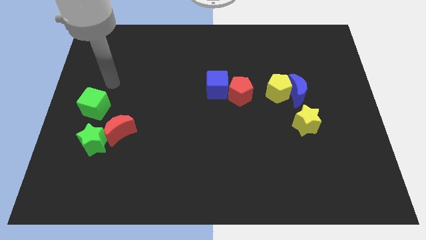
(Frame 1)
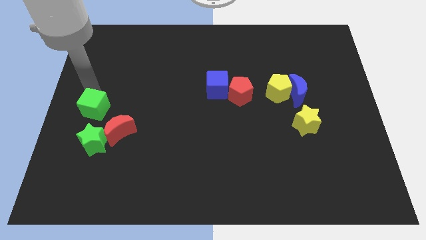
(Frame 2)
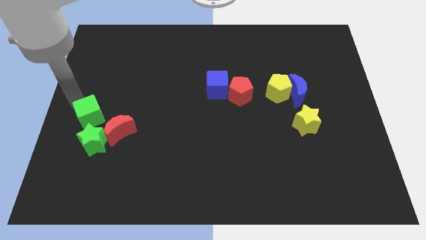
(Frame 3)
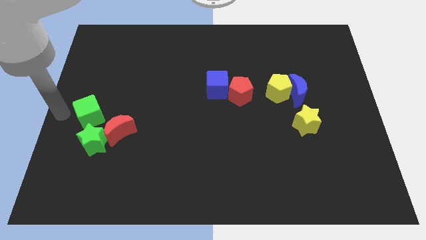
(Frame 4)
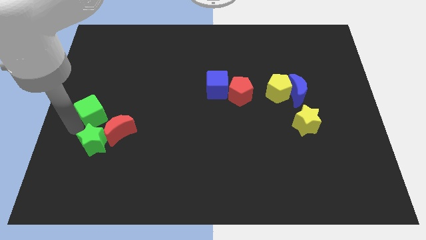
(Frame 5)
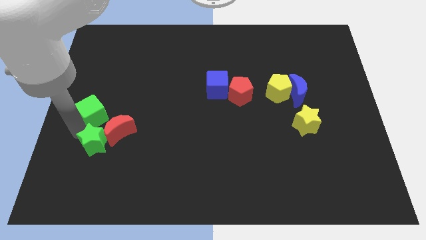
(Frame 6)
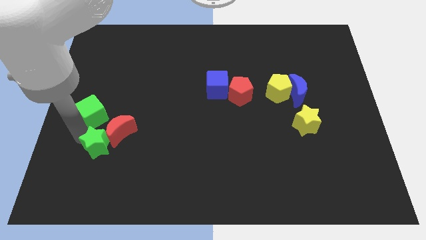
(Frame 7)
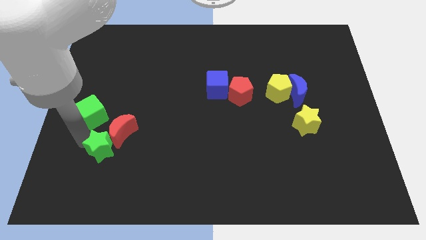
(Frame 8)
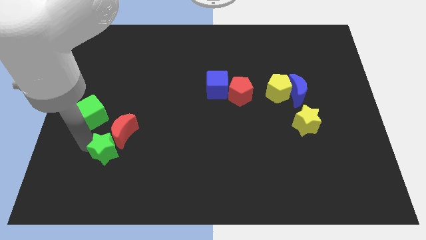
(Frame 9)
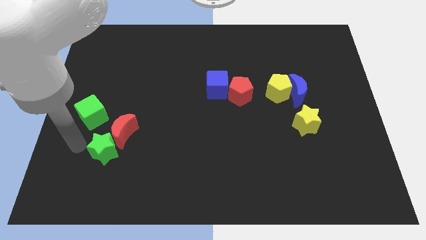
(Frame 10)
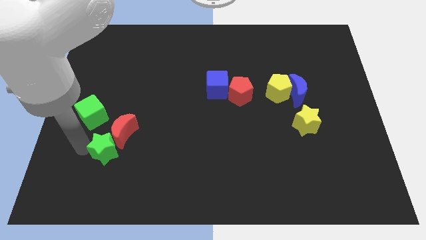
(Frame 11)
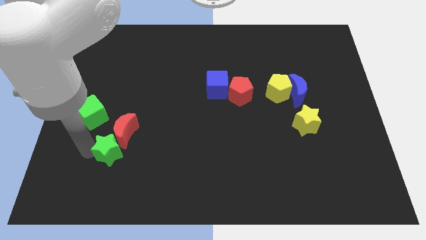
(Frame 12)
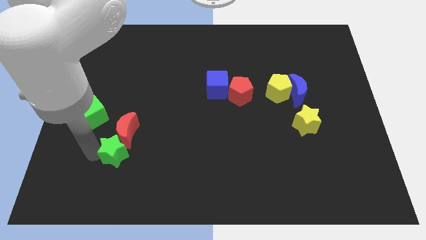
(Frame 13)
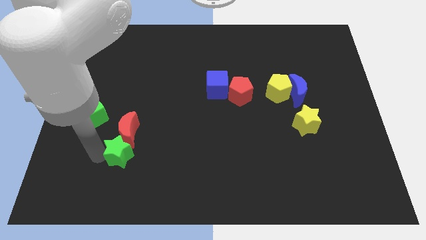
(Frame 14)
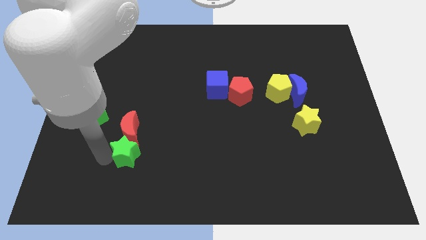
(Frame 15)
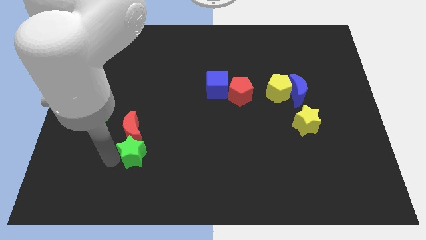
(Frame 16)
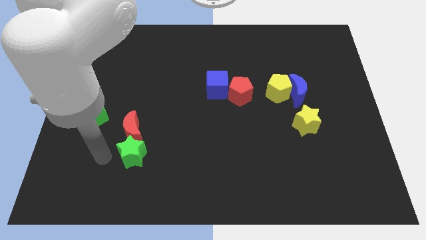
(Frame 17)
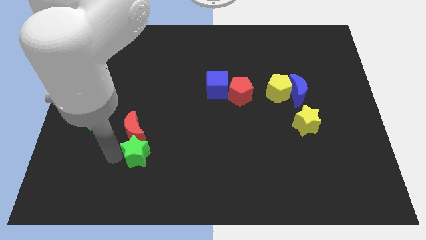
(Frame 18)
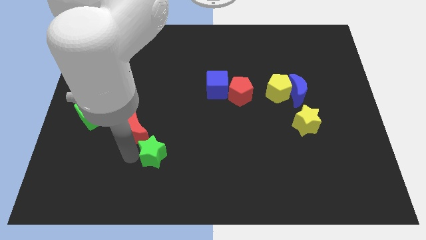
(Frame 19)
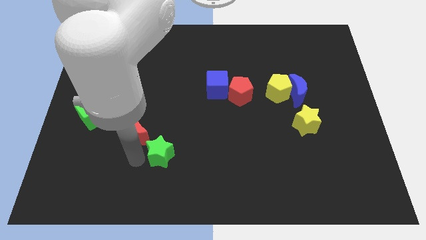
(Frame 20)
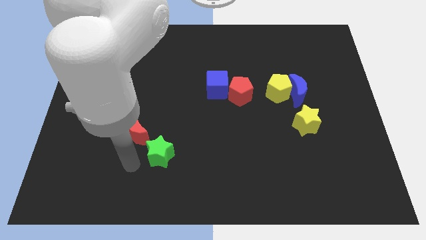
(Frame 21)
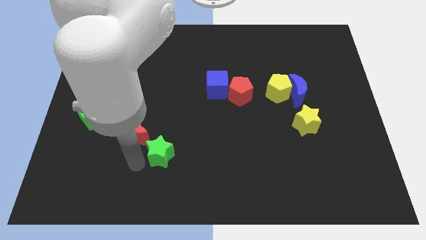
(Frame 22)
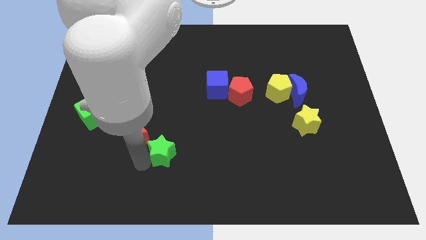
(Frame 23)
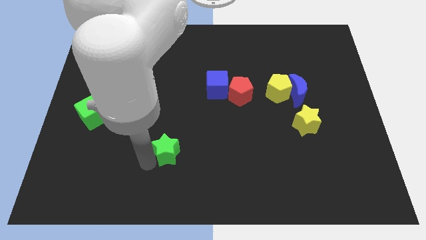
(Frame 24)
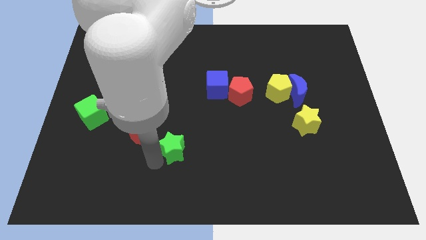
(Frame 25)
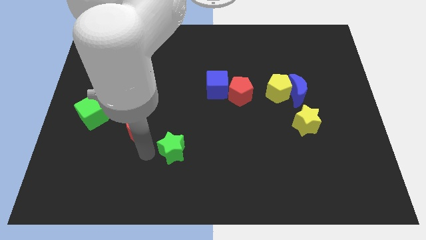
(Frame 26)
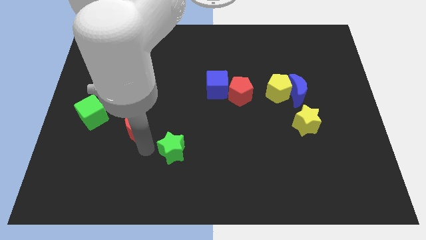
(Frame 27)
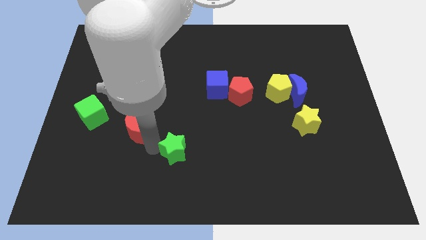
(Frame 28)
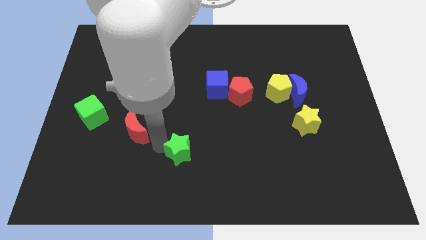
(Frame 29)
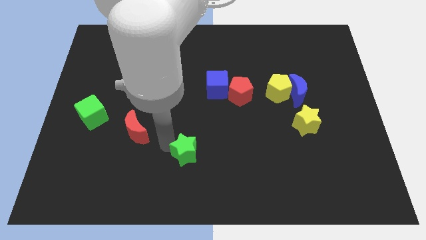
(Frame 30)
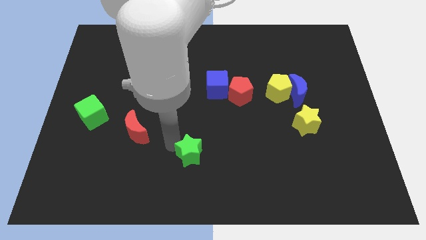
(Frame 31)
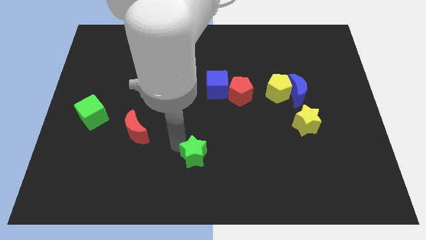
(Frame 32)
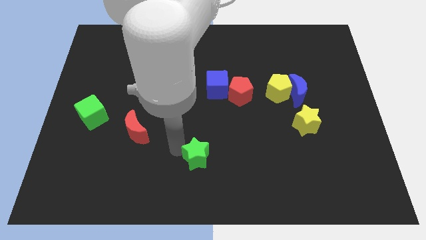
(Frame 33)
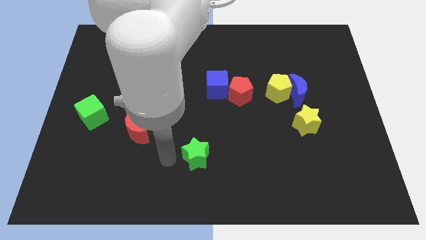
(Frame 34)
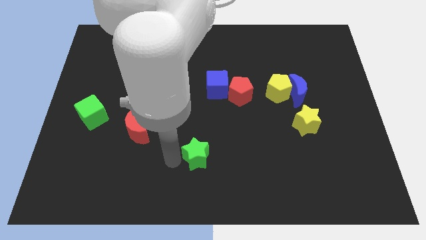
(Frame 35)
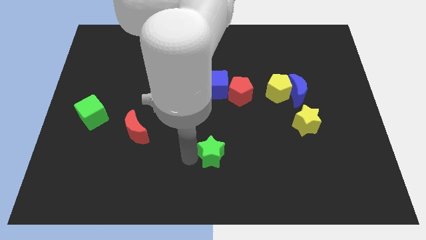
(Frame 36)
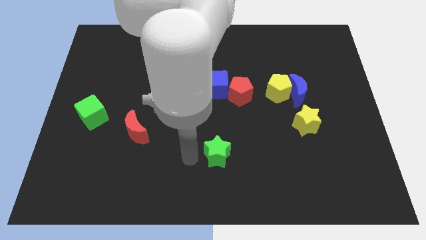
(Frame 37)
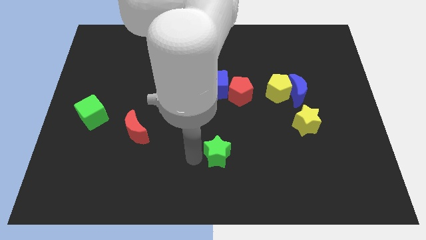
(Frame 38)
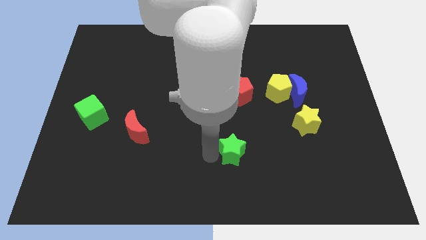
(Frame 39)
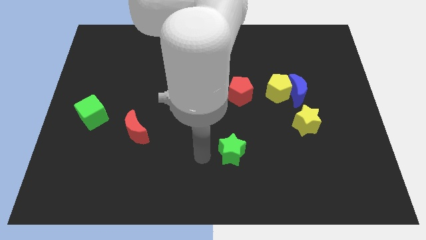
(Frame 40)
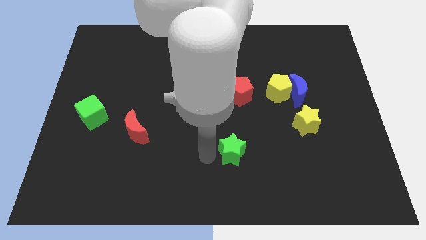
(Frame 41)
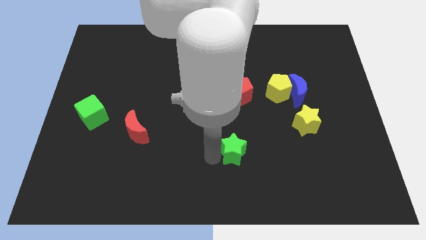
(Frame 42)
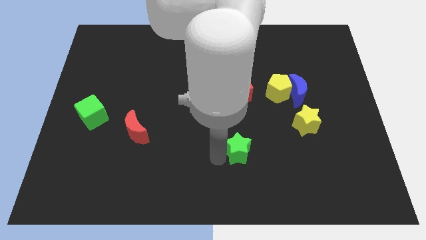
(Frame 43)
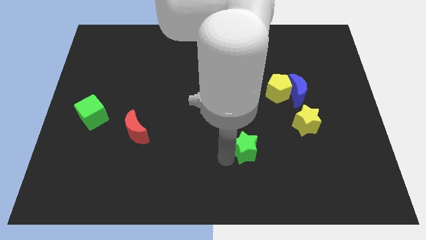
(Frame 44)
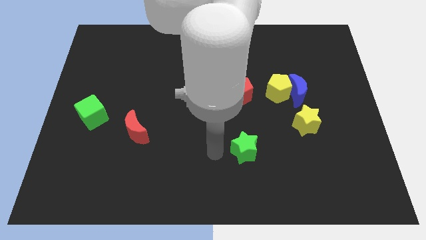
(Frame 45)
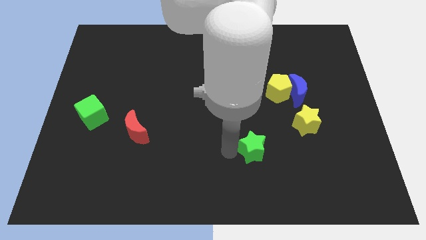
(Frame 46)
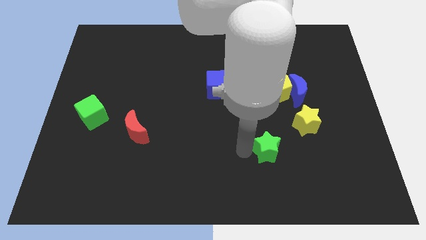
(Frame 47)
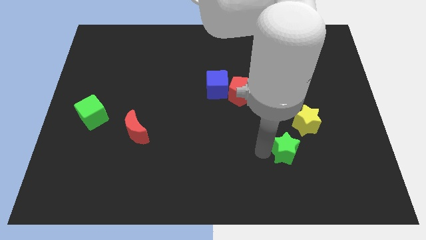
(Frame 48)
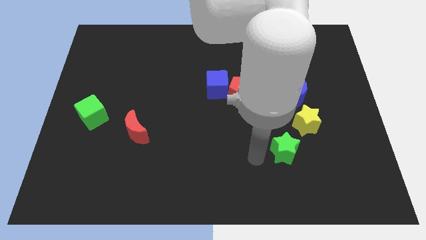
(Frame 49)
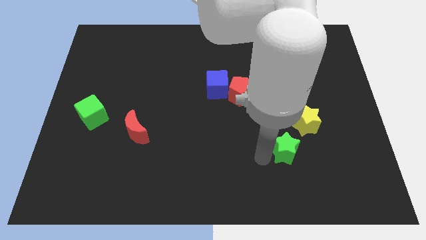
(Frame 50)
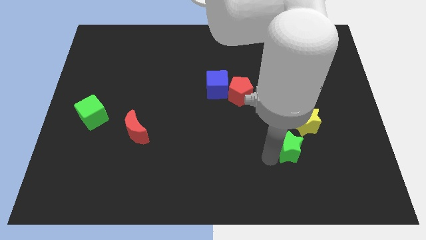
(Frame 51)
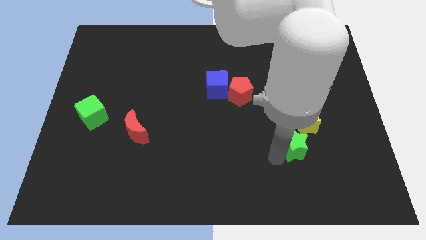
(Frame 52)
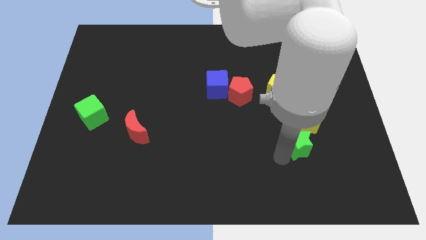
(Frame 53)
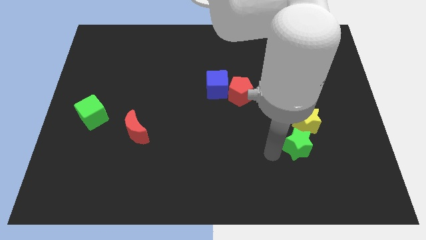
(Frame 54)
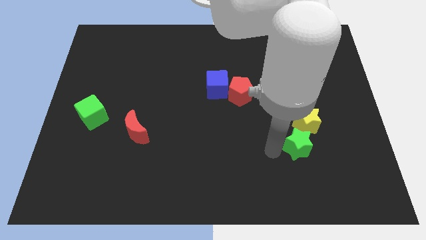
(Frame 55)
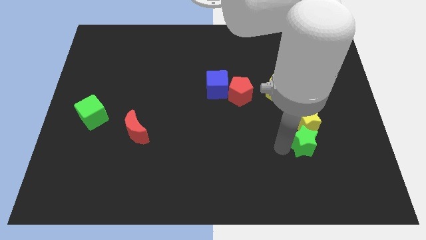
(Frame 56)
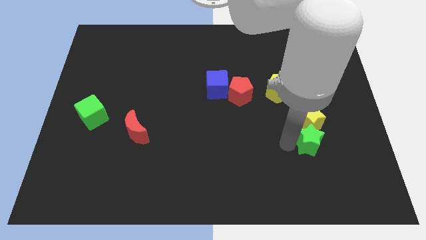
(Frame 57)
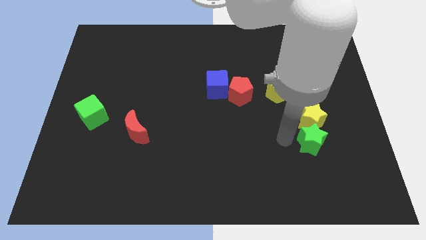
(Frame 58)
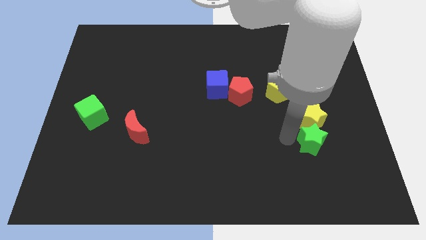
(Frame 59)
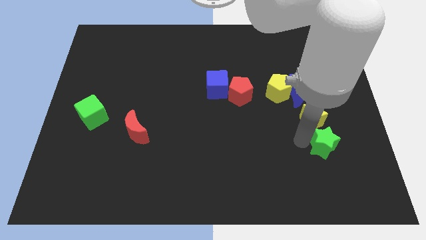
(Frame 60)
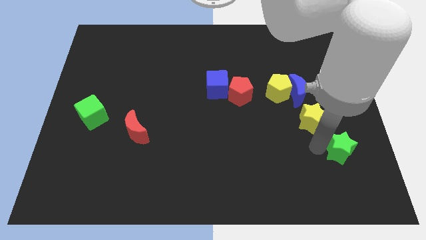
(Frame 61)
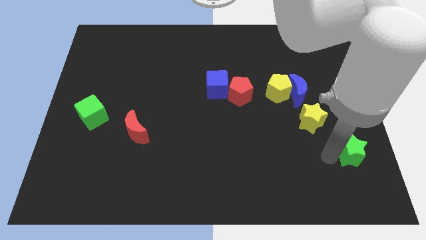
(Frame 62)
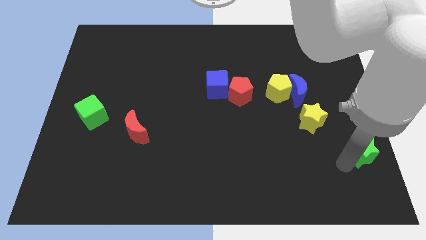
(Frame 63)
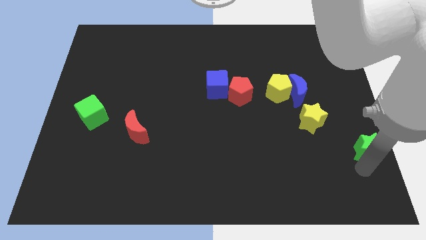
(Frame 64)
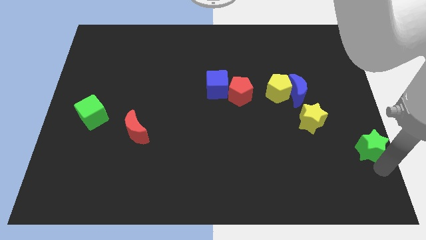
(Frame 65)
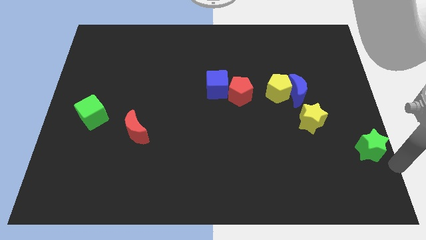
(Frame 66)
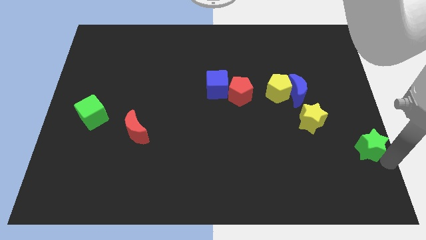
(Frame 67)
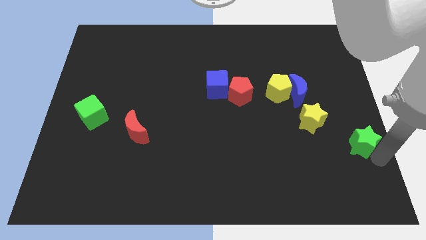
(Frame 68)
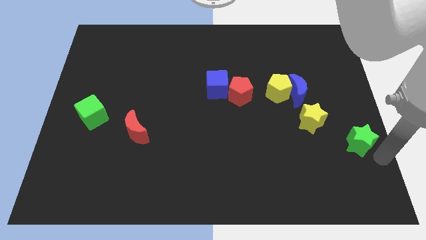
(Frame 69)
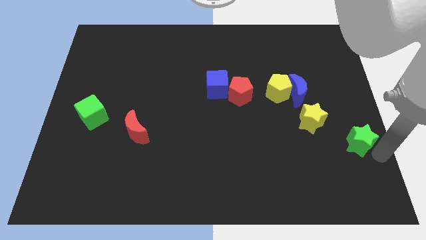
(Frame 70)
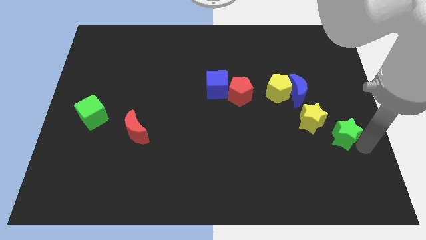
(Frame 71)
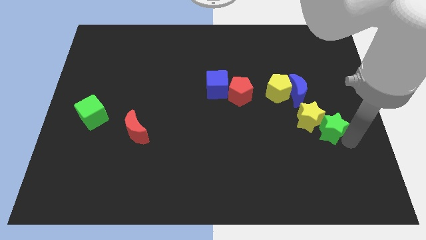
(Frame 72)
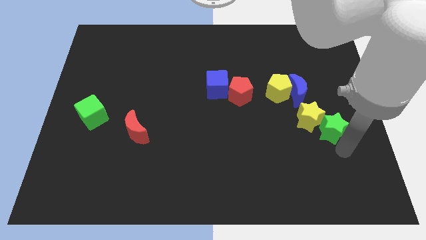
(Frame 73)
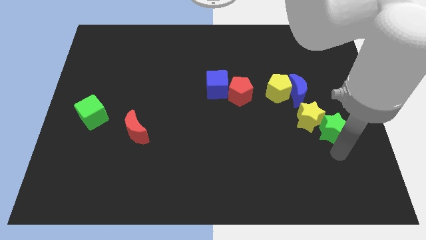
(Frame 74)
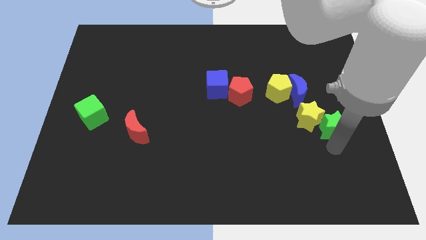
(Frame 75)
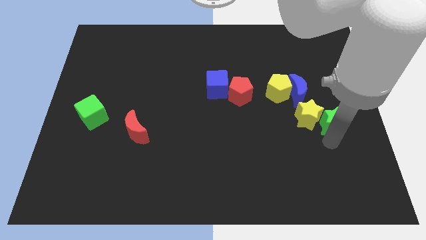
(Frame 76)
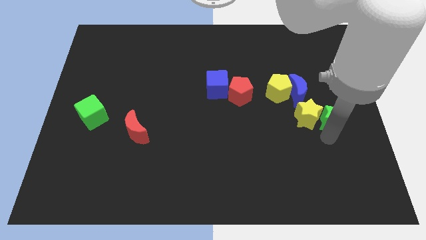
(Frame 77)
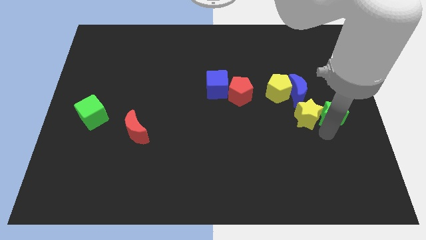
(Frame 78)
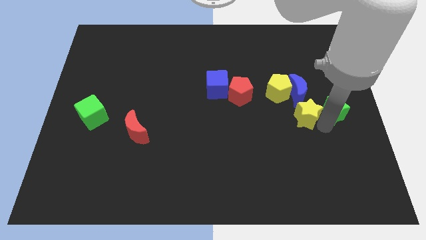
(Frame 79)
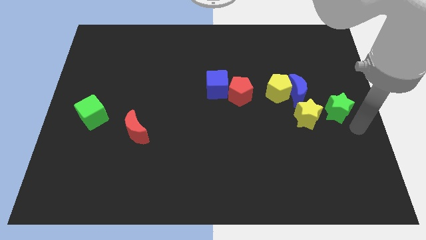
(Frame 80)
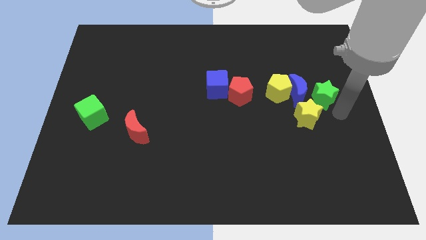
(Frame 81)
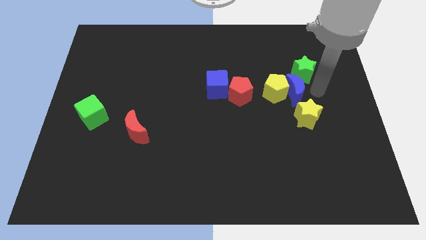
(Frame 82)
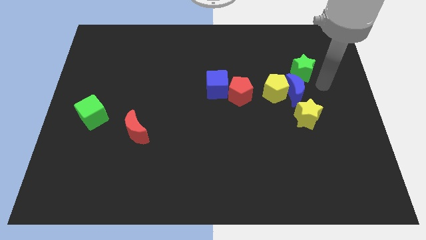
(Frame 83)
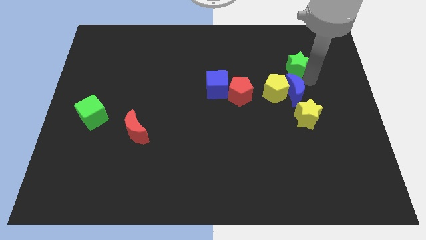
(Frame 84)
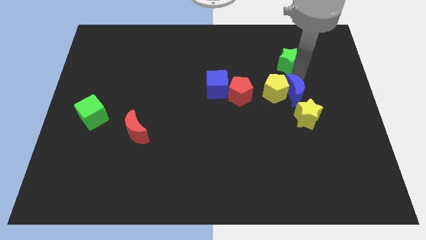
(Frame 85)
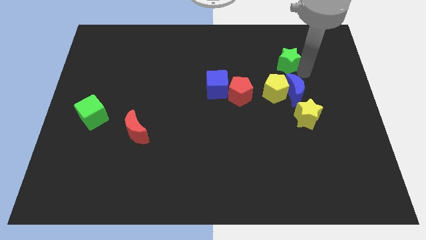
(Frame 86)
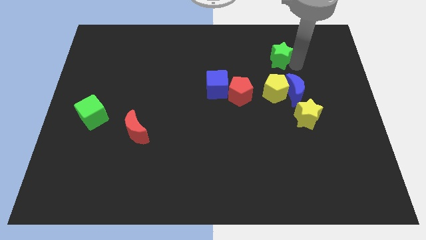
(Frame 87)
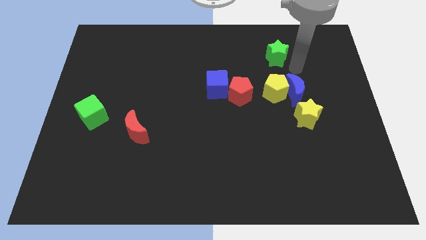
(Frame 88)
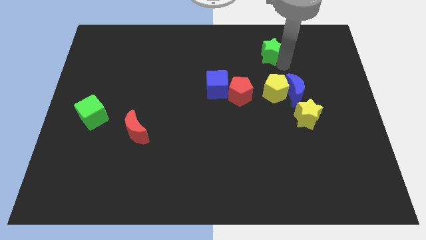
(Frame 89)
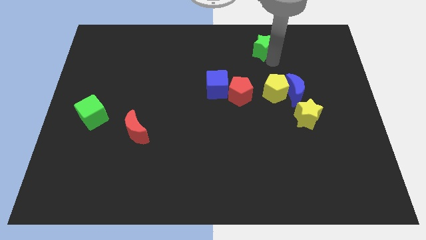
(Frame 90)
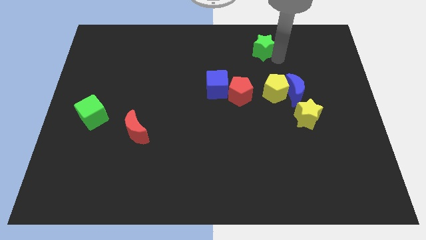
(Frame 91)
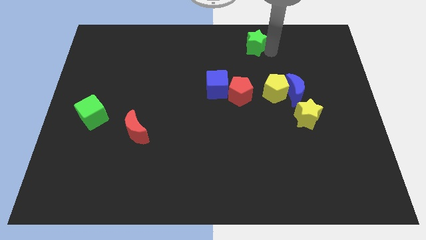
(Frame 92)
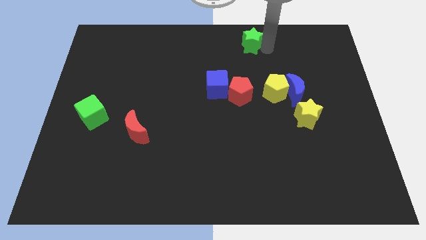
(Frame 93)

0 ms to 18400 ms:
put the green star to the top side
